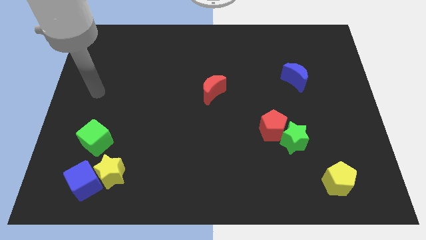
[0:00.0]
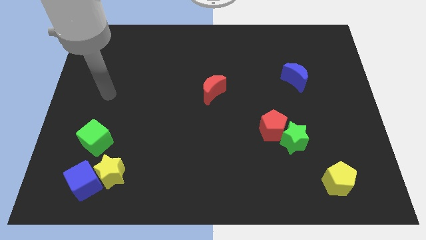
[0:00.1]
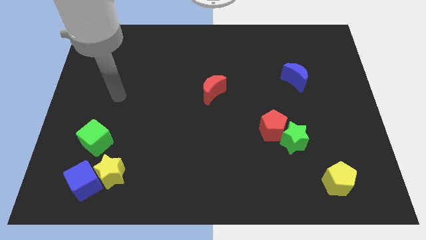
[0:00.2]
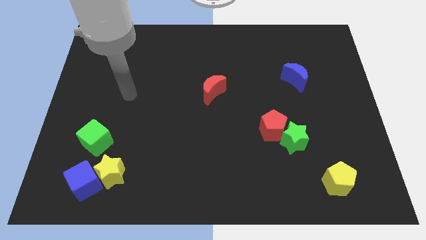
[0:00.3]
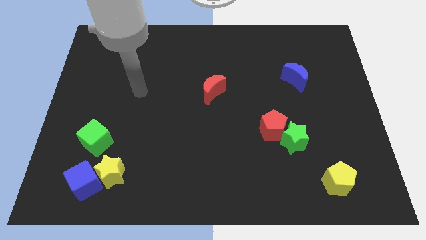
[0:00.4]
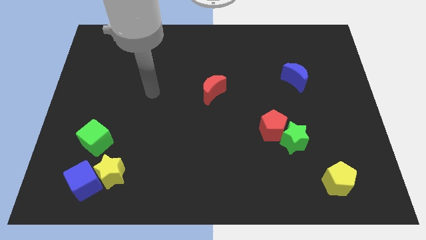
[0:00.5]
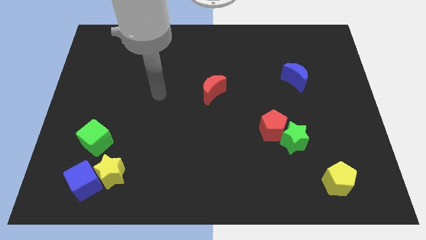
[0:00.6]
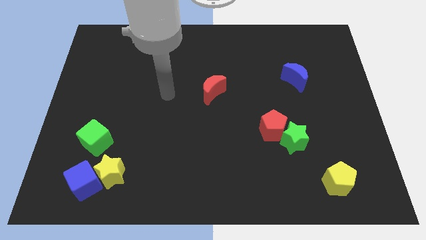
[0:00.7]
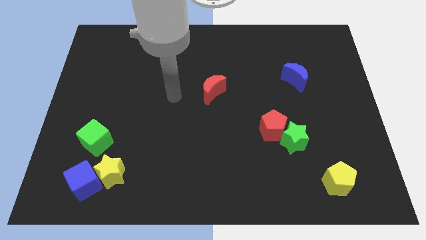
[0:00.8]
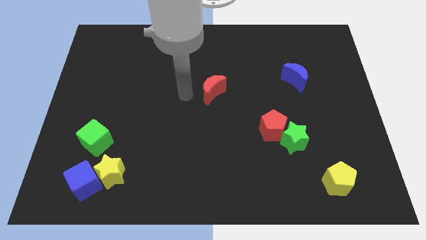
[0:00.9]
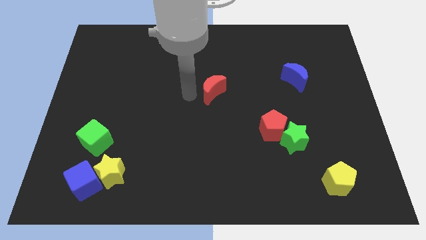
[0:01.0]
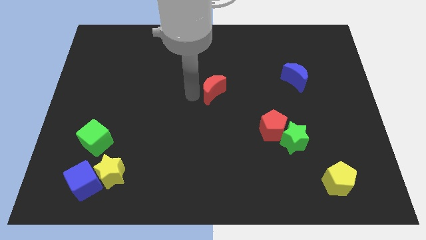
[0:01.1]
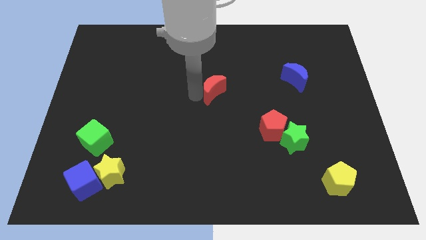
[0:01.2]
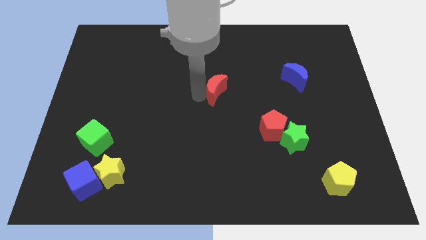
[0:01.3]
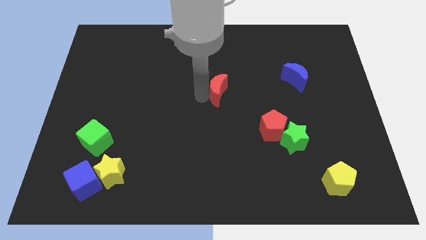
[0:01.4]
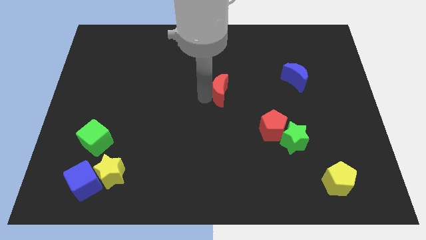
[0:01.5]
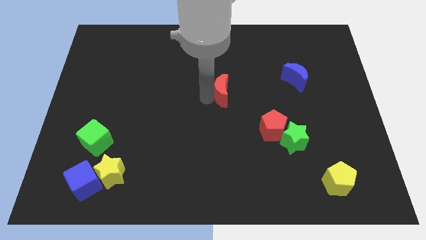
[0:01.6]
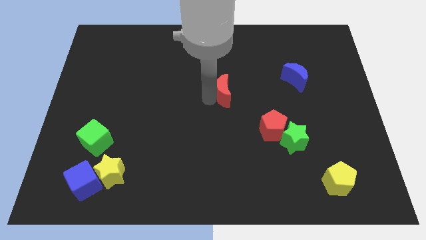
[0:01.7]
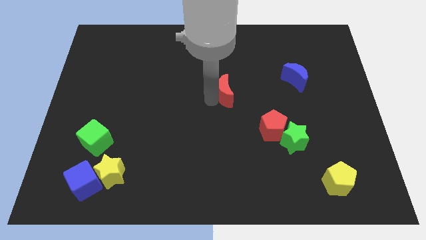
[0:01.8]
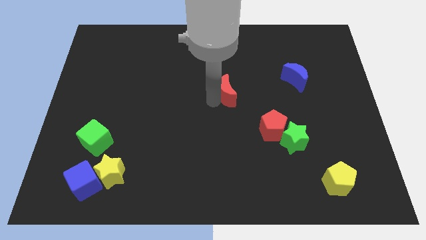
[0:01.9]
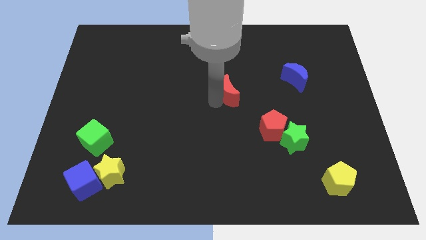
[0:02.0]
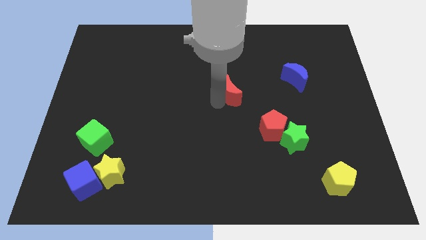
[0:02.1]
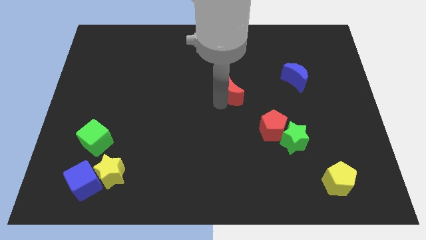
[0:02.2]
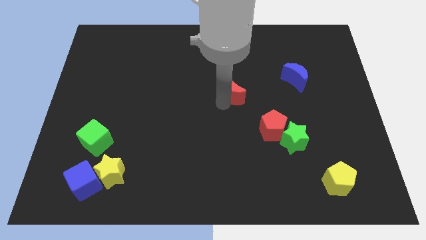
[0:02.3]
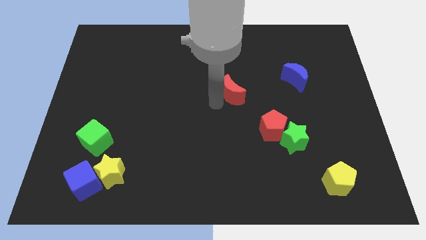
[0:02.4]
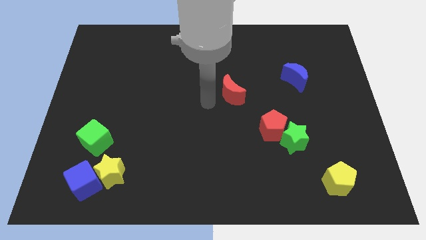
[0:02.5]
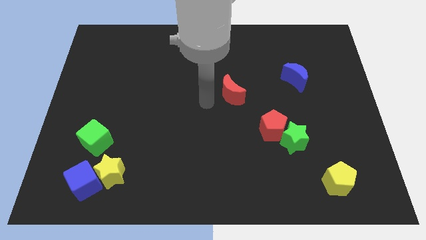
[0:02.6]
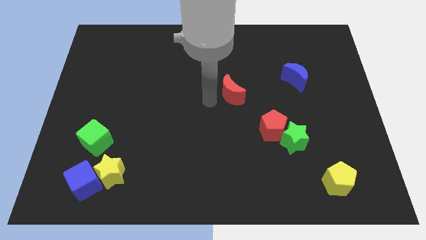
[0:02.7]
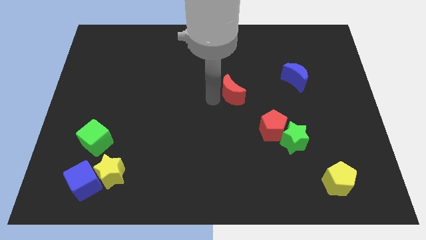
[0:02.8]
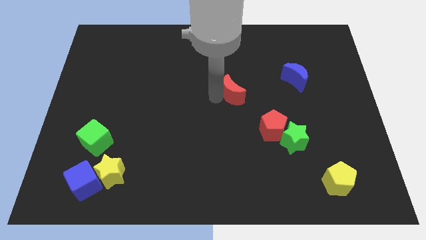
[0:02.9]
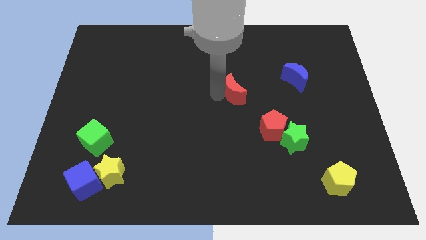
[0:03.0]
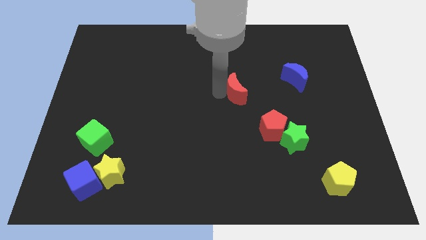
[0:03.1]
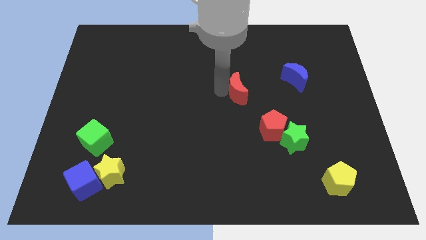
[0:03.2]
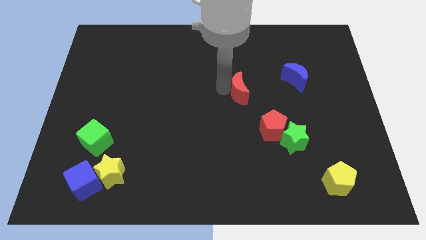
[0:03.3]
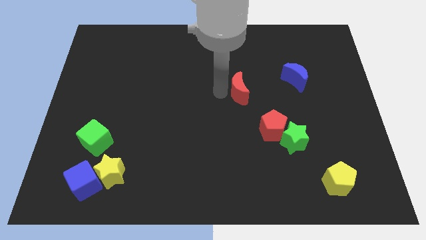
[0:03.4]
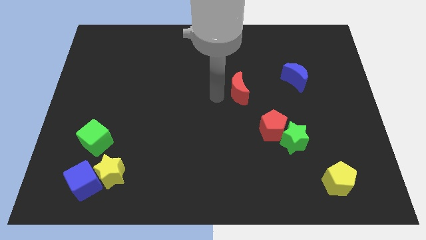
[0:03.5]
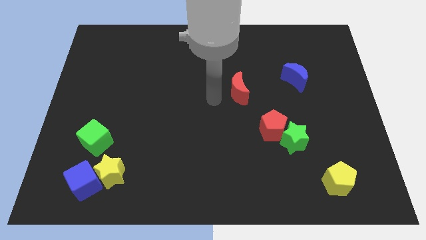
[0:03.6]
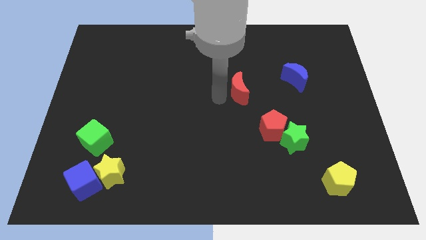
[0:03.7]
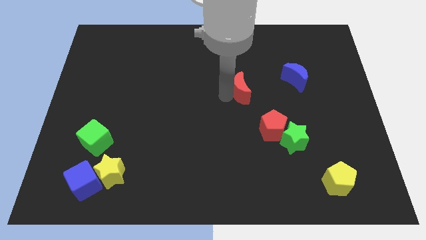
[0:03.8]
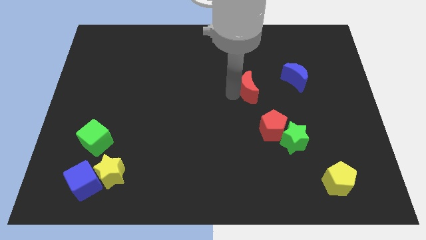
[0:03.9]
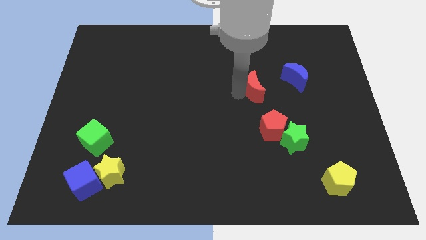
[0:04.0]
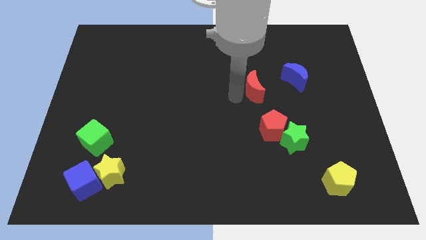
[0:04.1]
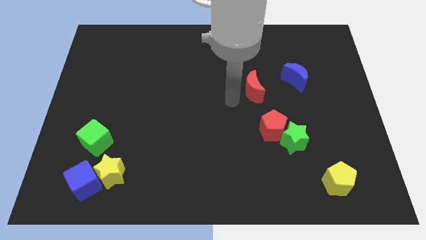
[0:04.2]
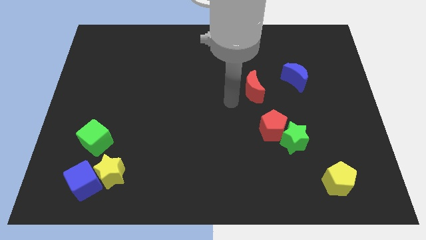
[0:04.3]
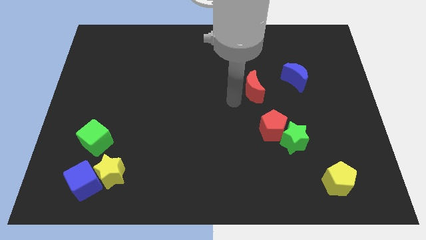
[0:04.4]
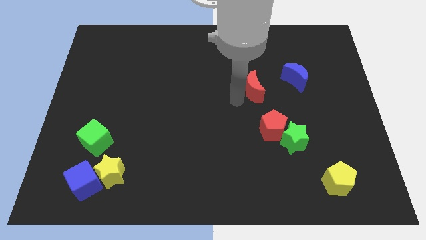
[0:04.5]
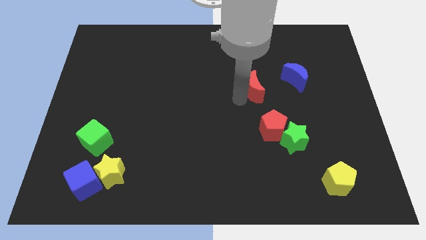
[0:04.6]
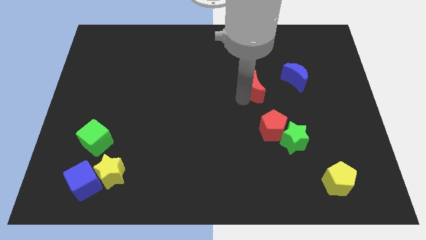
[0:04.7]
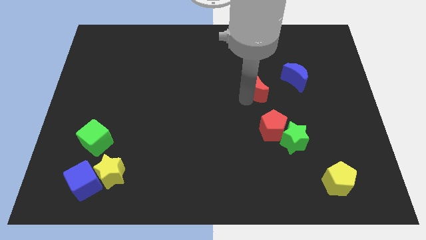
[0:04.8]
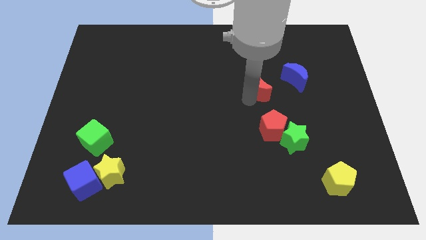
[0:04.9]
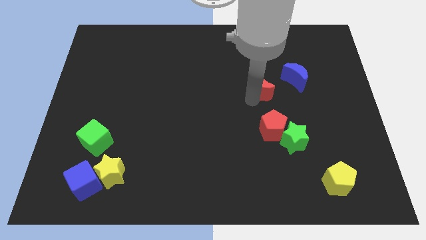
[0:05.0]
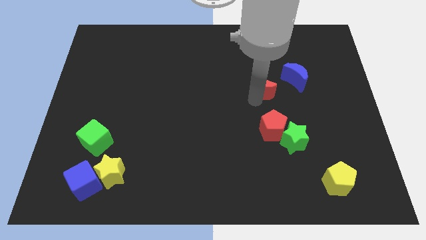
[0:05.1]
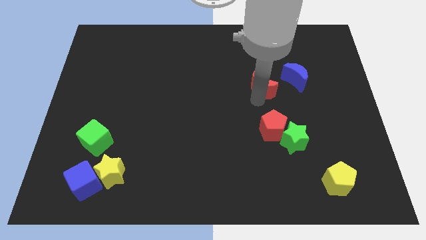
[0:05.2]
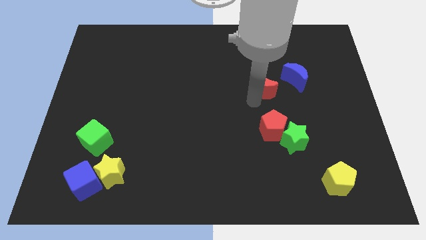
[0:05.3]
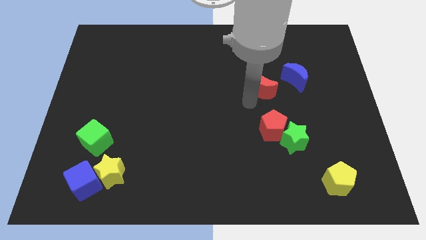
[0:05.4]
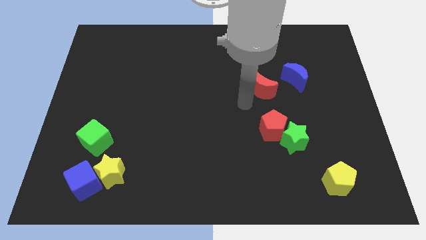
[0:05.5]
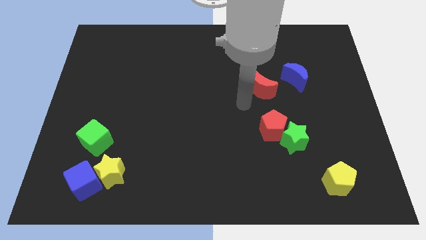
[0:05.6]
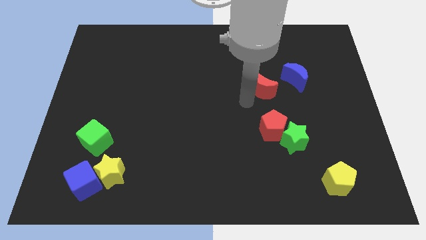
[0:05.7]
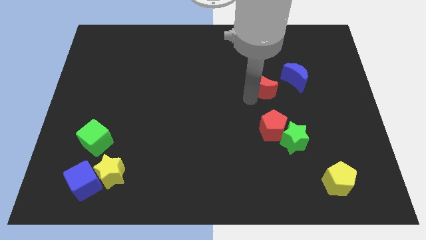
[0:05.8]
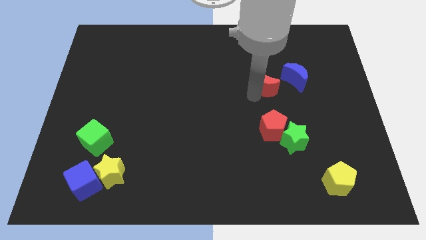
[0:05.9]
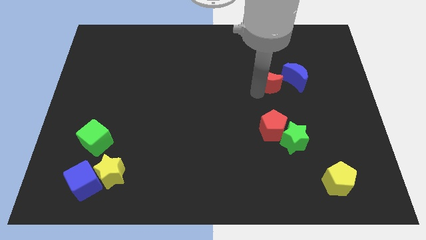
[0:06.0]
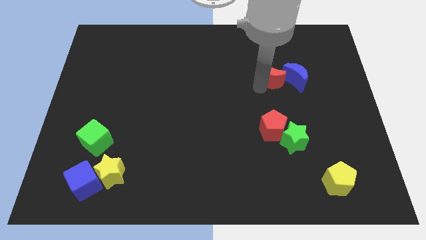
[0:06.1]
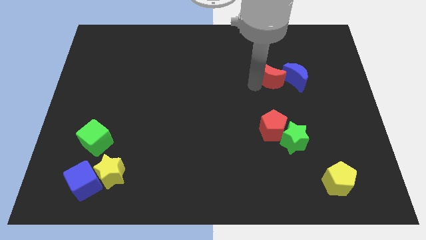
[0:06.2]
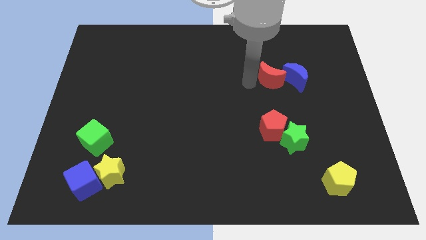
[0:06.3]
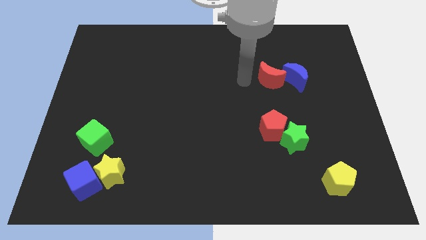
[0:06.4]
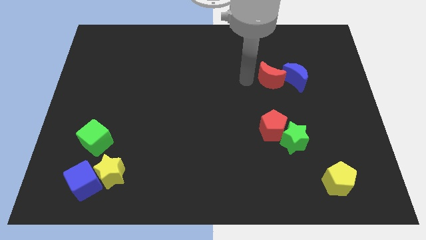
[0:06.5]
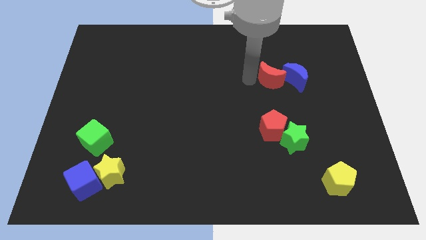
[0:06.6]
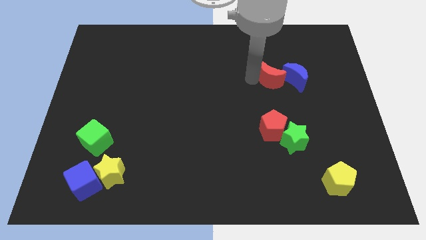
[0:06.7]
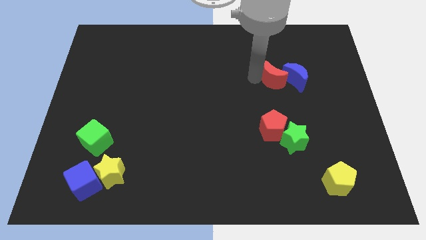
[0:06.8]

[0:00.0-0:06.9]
push the red moon close to the blue moon
